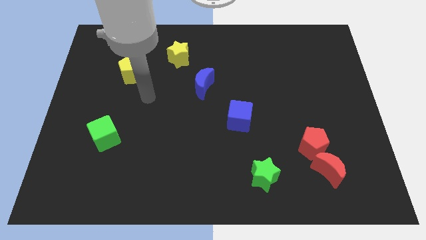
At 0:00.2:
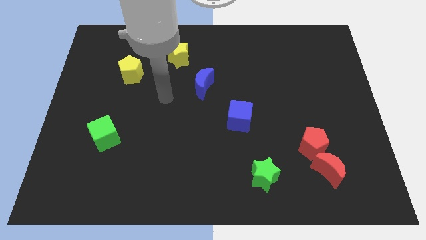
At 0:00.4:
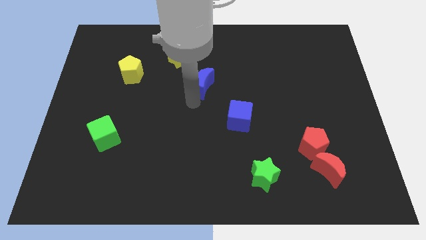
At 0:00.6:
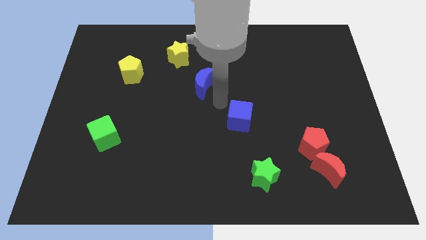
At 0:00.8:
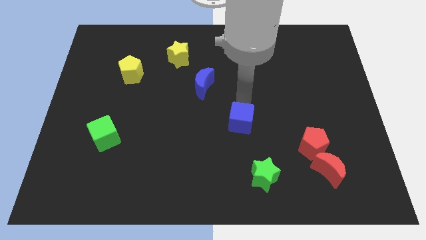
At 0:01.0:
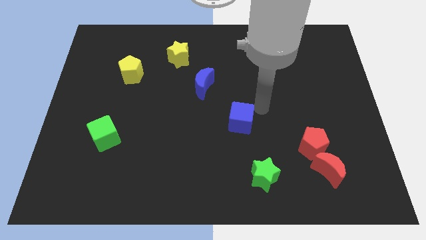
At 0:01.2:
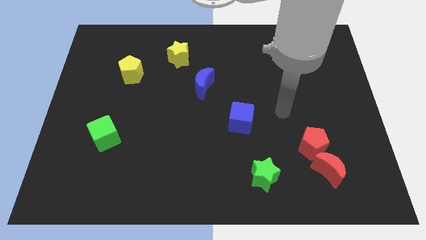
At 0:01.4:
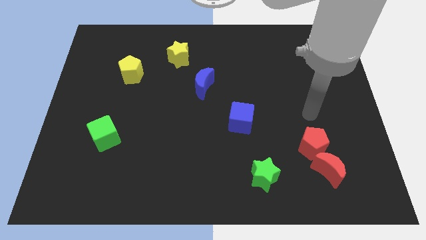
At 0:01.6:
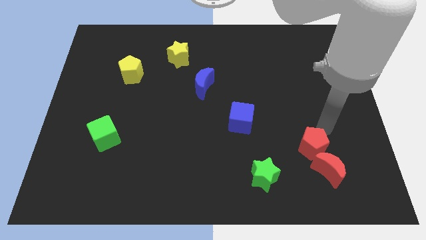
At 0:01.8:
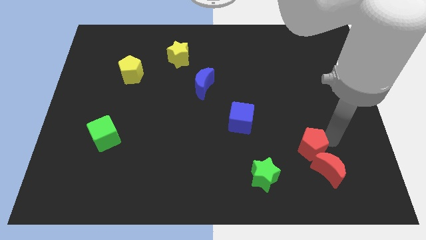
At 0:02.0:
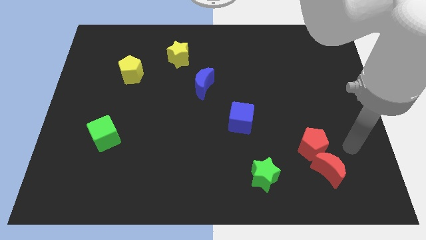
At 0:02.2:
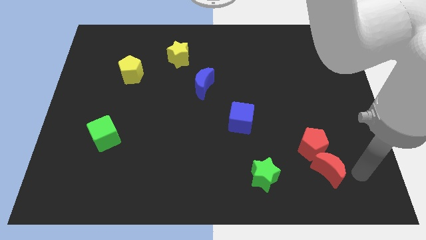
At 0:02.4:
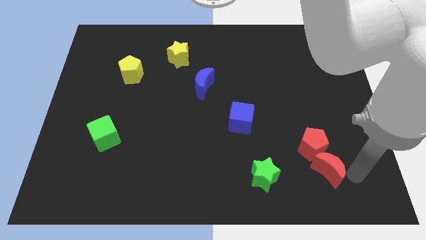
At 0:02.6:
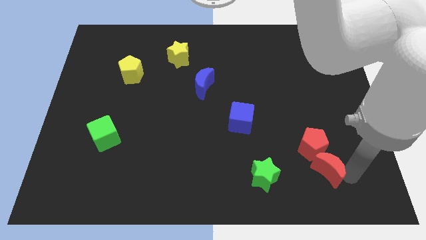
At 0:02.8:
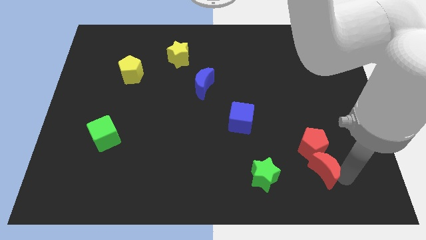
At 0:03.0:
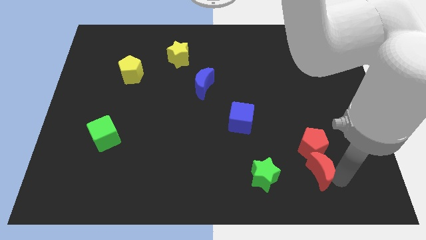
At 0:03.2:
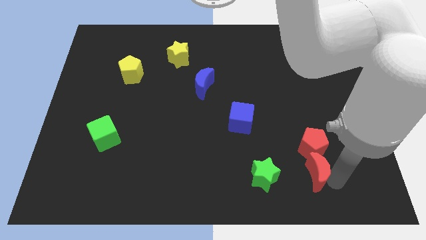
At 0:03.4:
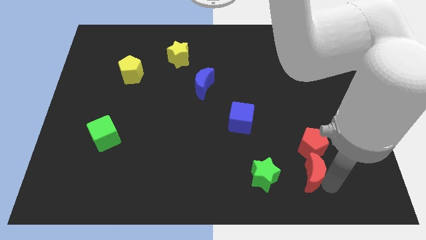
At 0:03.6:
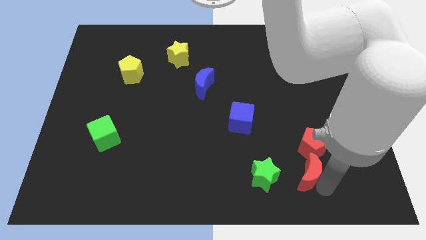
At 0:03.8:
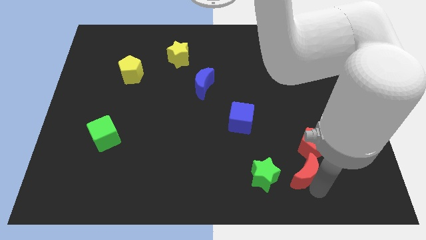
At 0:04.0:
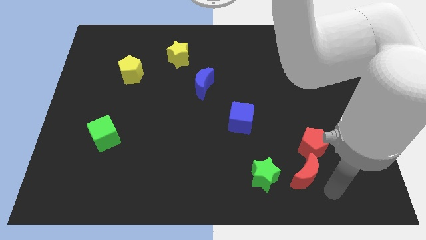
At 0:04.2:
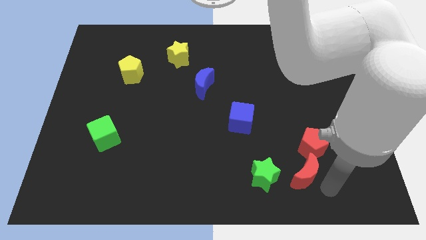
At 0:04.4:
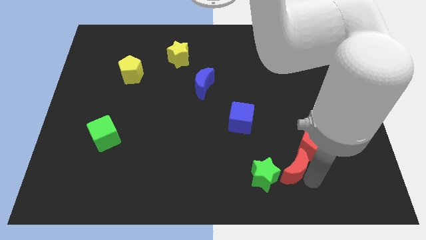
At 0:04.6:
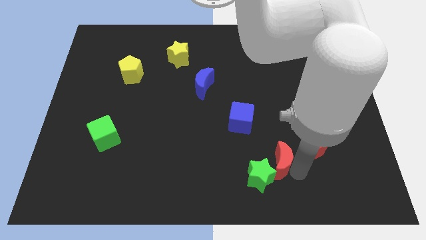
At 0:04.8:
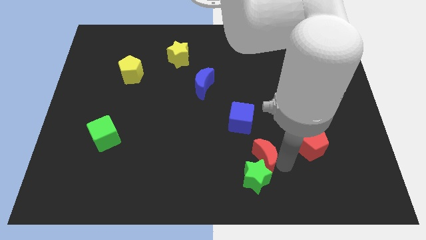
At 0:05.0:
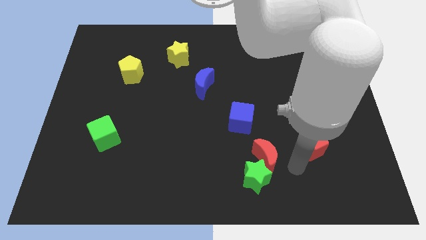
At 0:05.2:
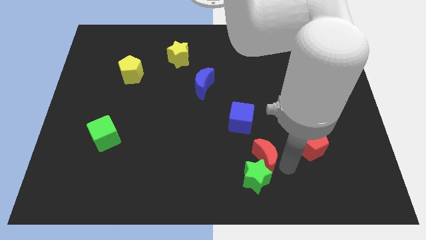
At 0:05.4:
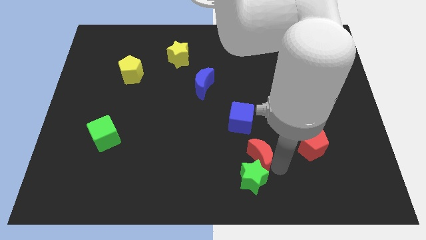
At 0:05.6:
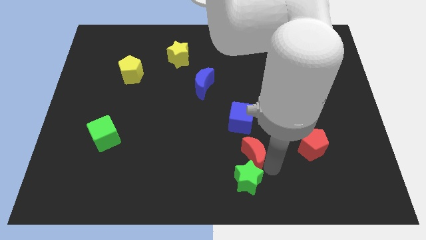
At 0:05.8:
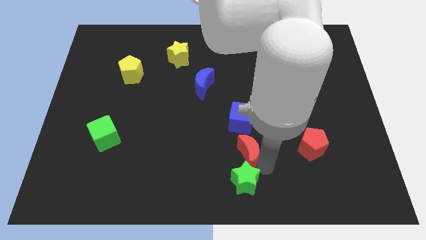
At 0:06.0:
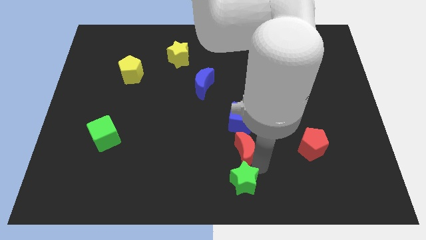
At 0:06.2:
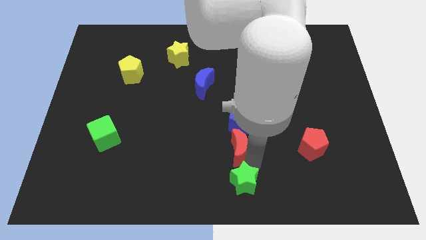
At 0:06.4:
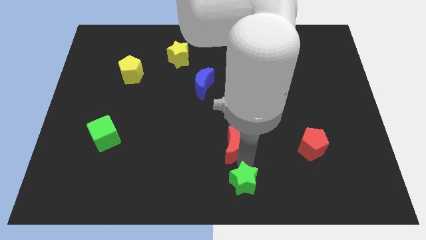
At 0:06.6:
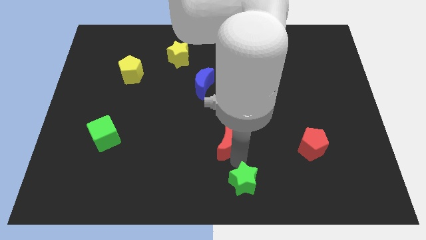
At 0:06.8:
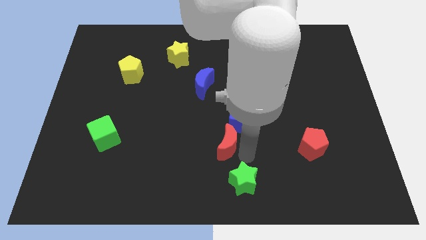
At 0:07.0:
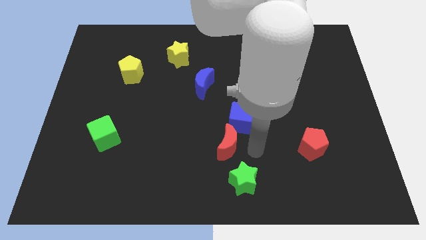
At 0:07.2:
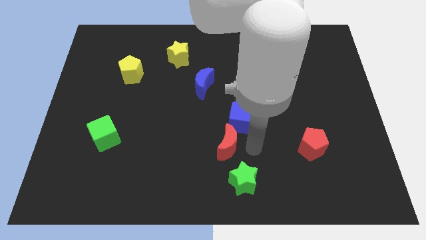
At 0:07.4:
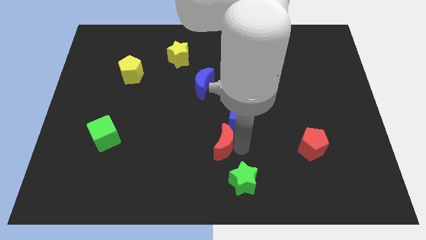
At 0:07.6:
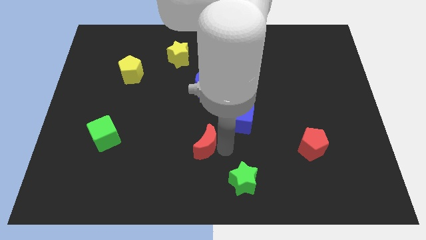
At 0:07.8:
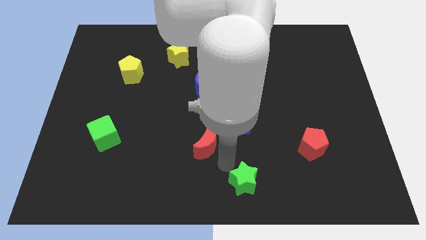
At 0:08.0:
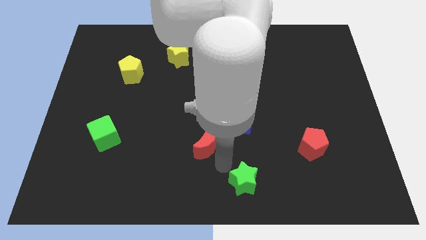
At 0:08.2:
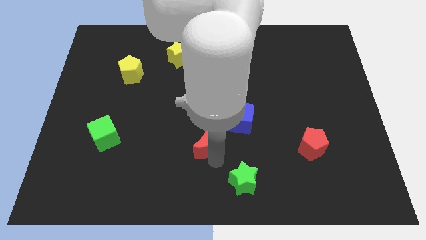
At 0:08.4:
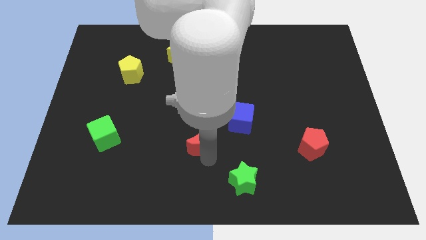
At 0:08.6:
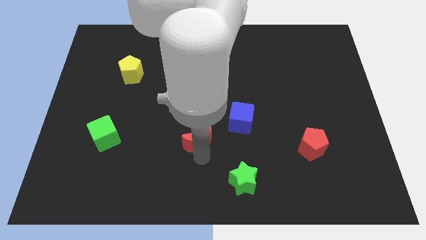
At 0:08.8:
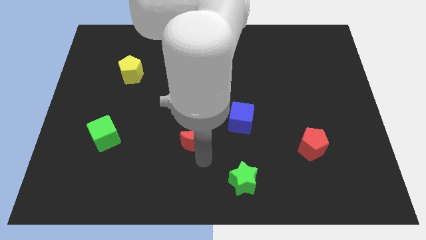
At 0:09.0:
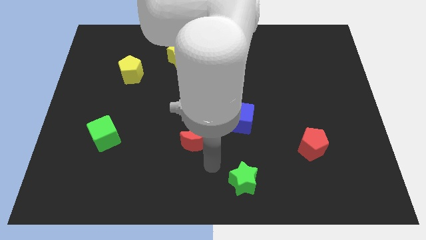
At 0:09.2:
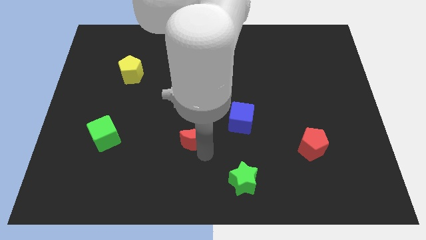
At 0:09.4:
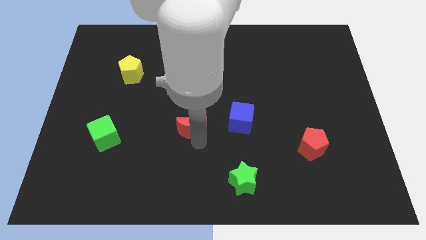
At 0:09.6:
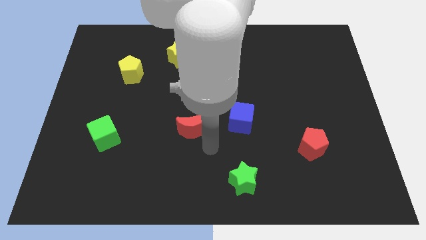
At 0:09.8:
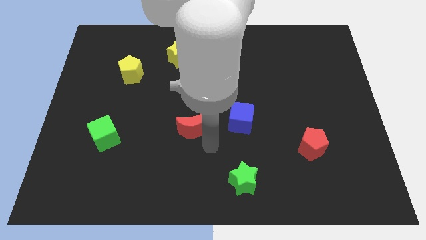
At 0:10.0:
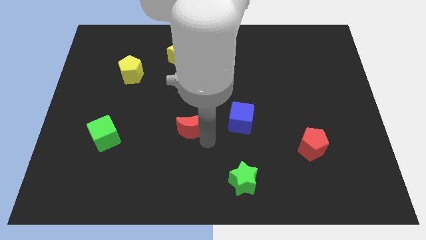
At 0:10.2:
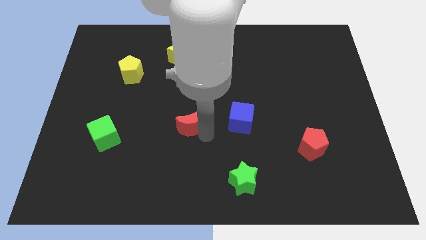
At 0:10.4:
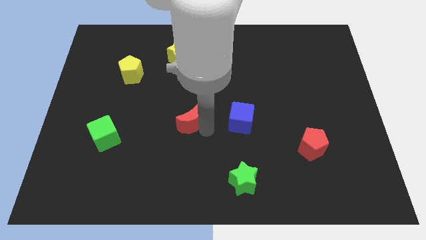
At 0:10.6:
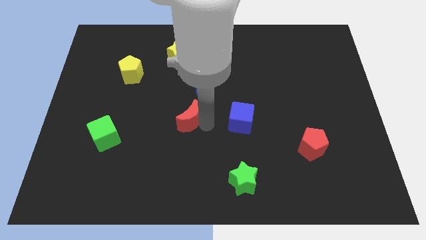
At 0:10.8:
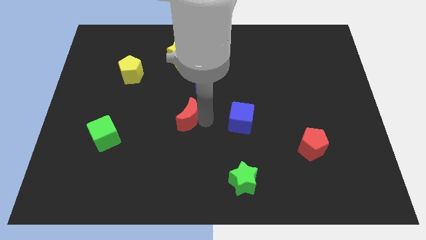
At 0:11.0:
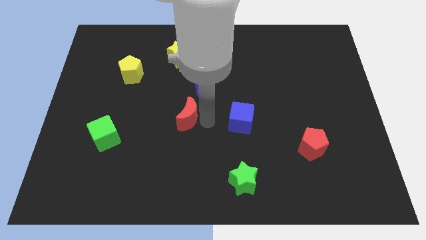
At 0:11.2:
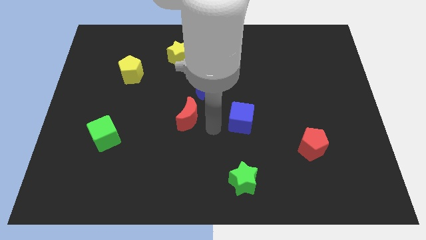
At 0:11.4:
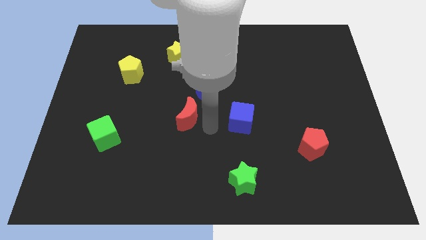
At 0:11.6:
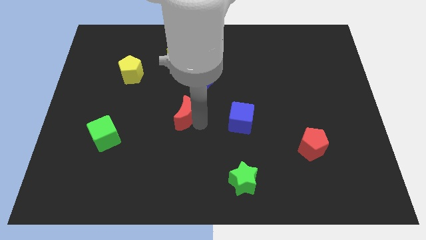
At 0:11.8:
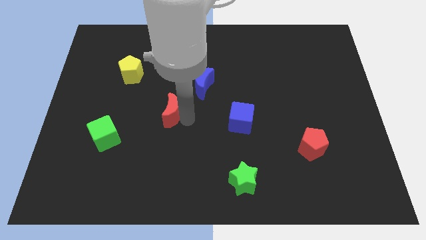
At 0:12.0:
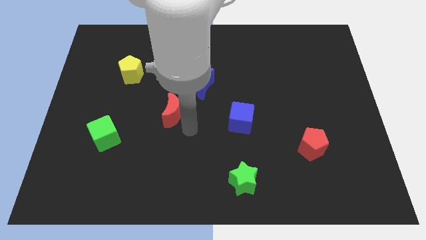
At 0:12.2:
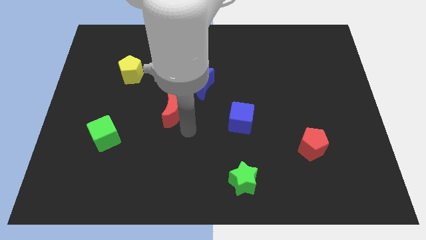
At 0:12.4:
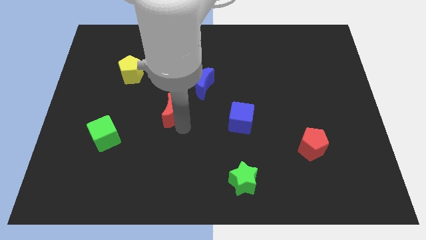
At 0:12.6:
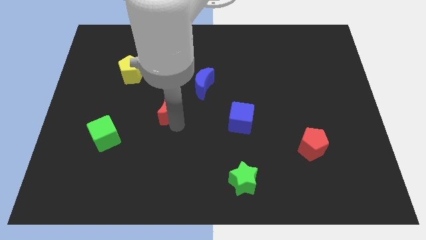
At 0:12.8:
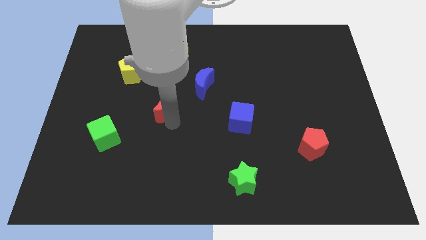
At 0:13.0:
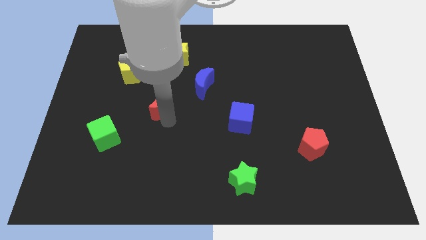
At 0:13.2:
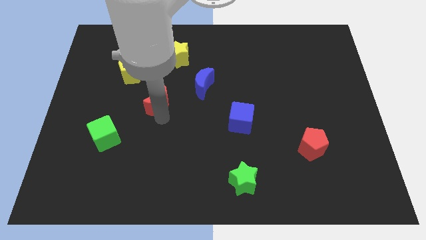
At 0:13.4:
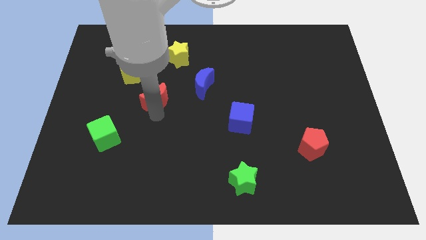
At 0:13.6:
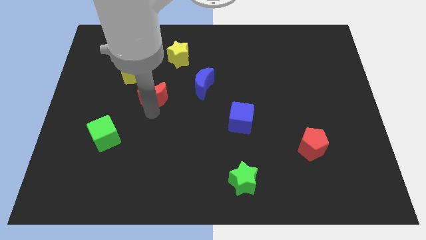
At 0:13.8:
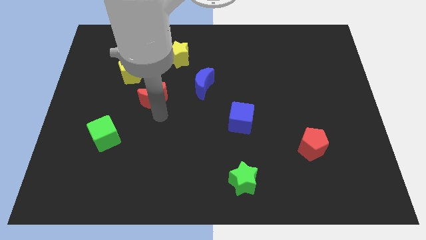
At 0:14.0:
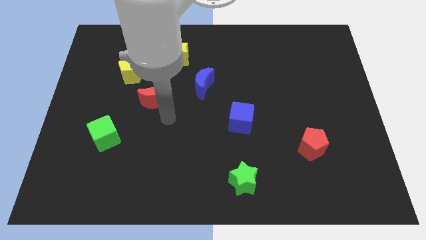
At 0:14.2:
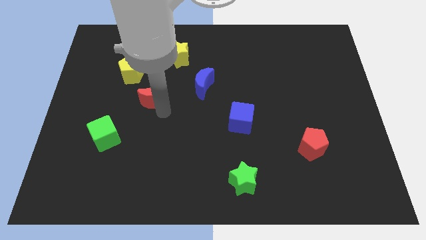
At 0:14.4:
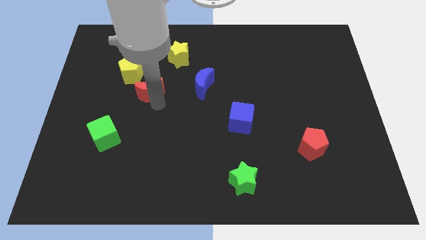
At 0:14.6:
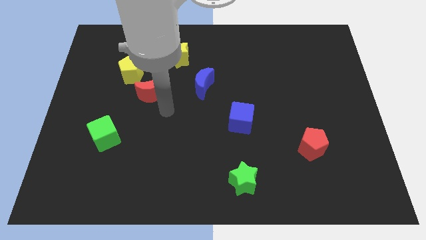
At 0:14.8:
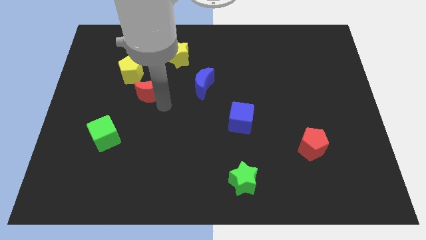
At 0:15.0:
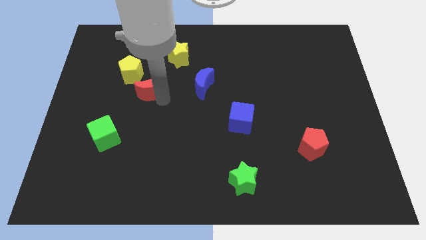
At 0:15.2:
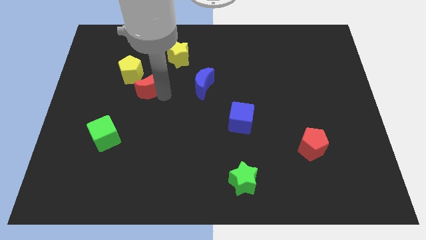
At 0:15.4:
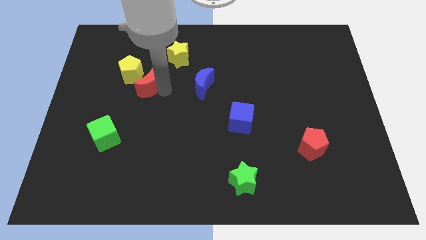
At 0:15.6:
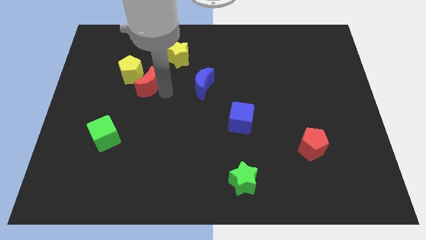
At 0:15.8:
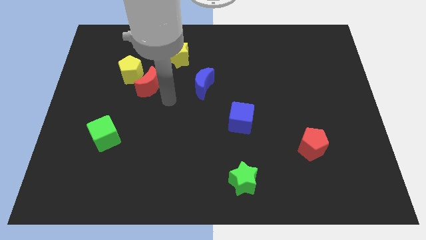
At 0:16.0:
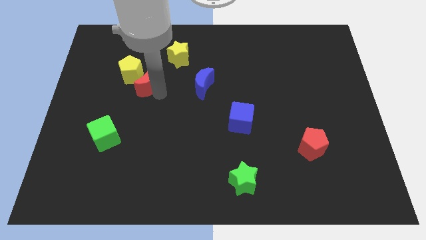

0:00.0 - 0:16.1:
push the red moon next to the yellow pentagon
